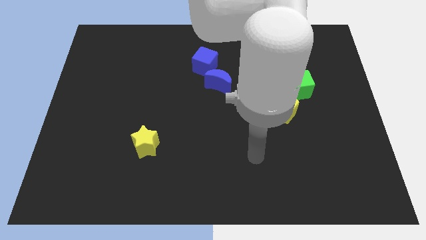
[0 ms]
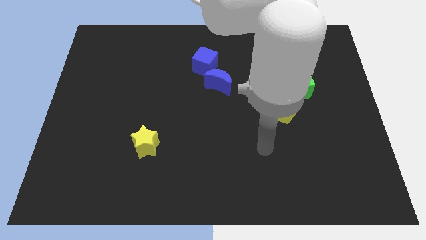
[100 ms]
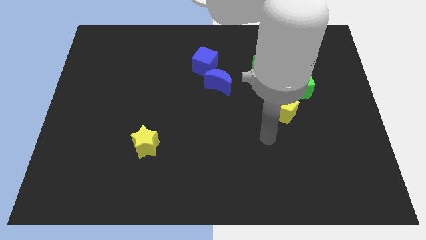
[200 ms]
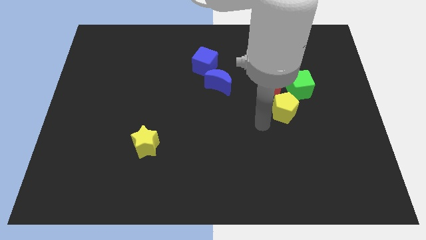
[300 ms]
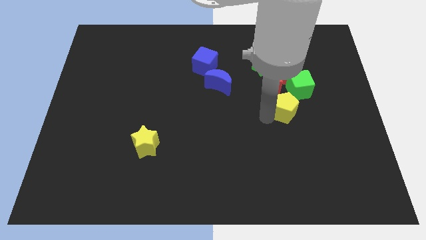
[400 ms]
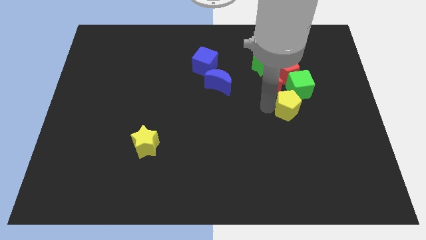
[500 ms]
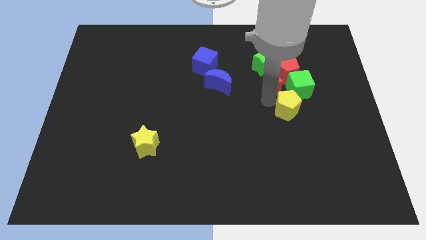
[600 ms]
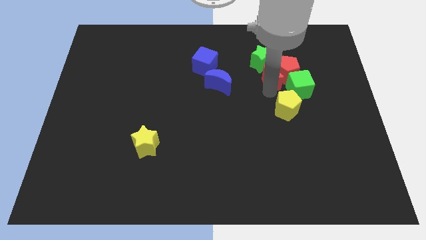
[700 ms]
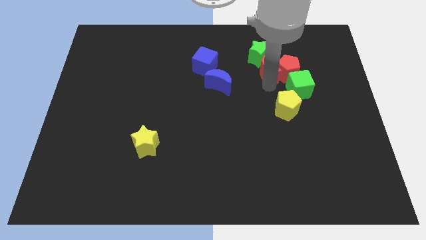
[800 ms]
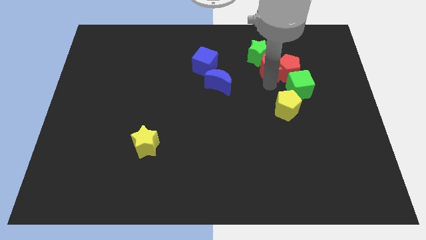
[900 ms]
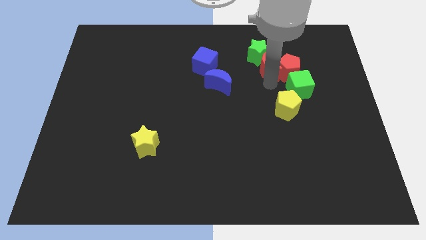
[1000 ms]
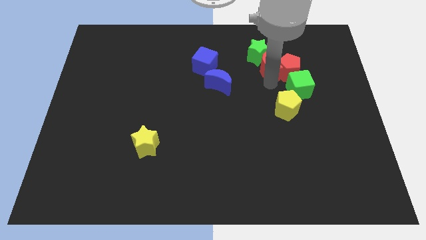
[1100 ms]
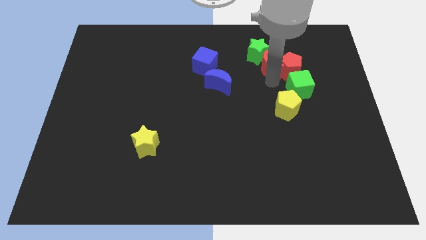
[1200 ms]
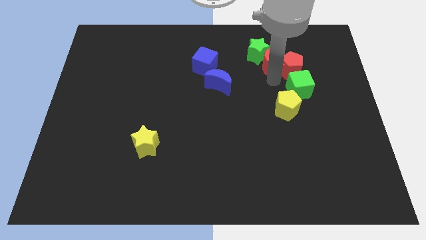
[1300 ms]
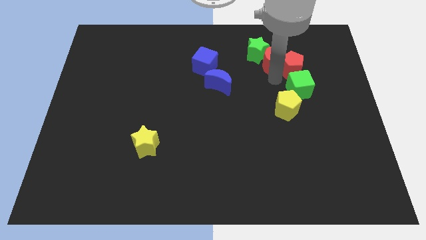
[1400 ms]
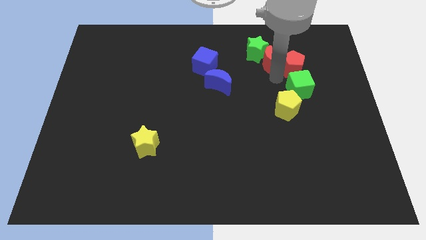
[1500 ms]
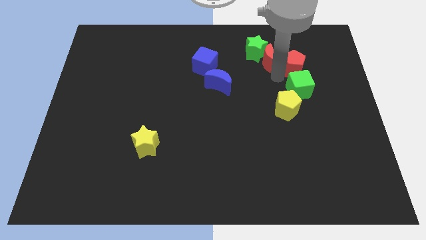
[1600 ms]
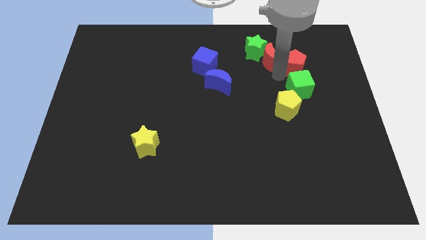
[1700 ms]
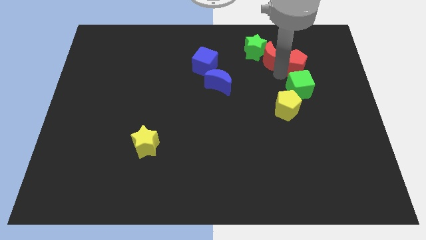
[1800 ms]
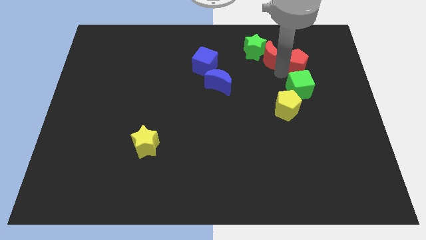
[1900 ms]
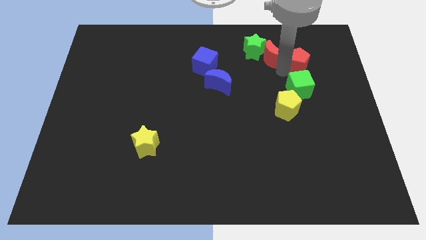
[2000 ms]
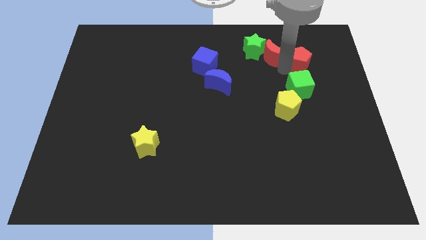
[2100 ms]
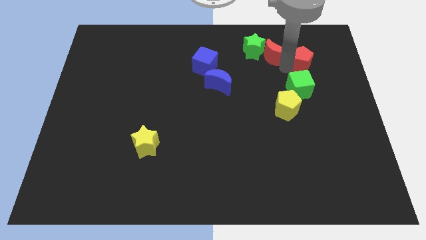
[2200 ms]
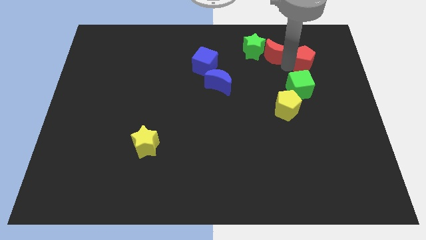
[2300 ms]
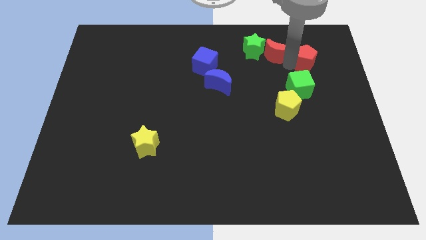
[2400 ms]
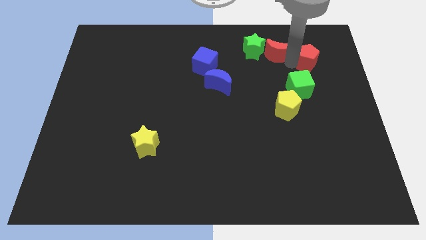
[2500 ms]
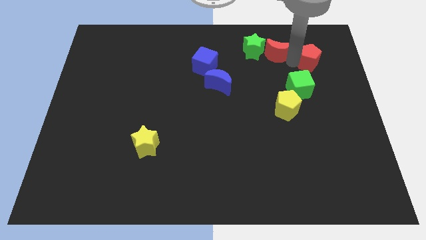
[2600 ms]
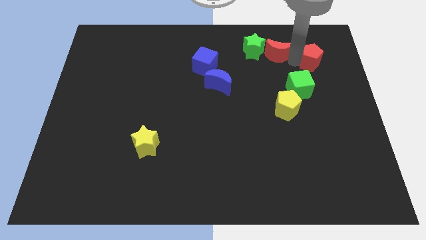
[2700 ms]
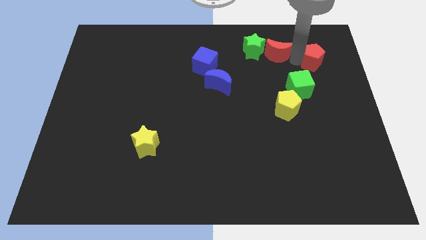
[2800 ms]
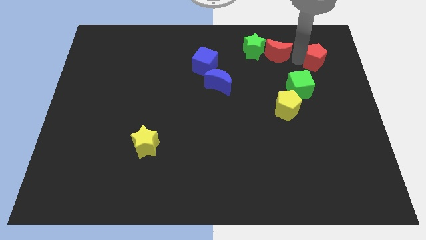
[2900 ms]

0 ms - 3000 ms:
pull the red pentagon apart from the red moon, green cube, and green star

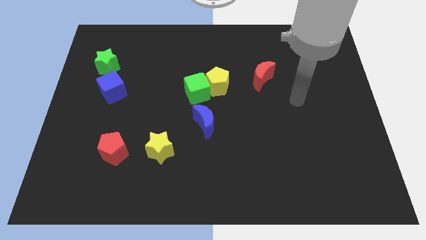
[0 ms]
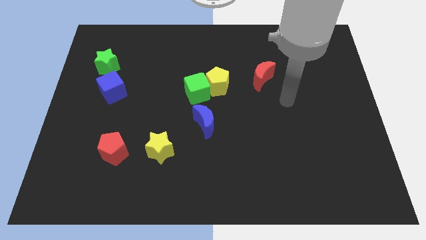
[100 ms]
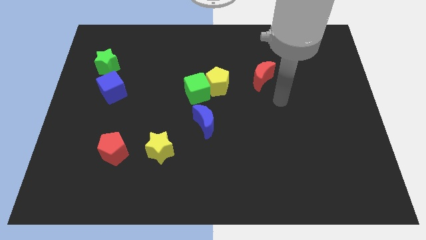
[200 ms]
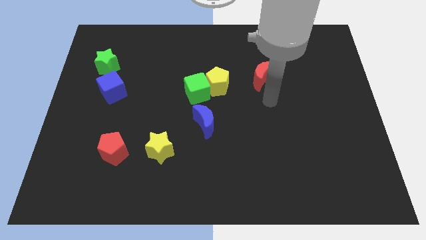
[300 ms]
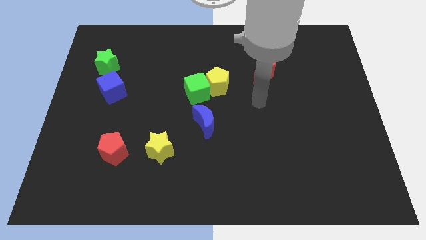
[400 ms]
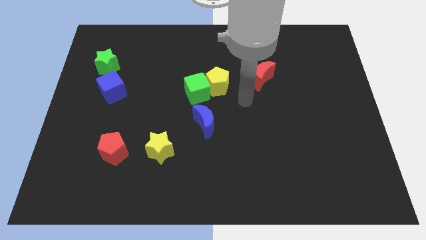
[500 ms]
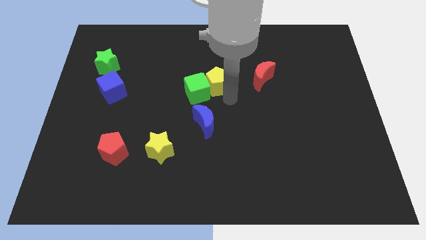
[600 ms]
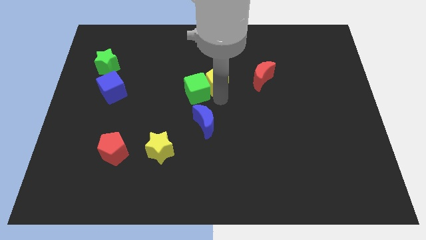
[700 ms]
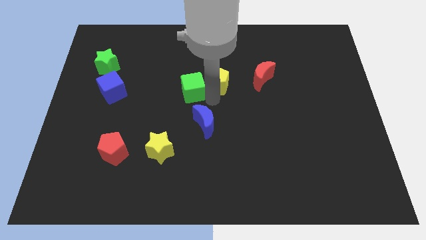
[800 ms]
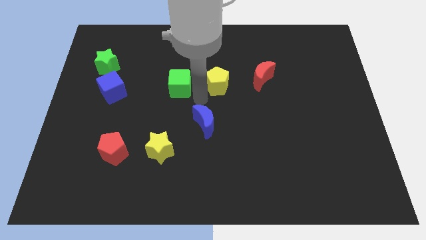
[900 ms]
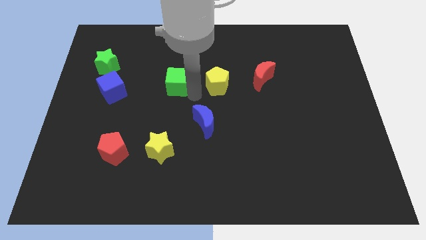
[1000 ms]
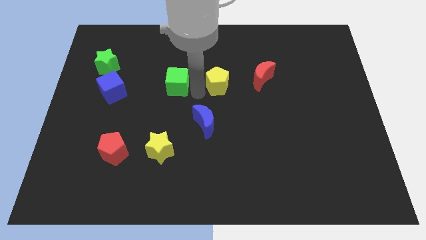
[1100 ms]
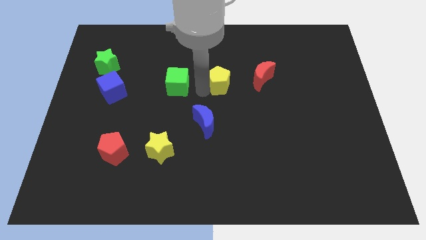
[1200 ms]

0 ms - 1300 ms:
separate the yellow pentagon from the green cube

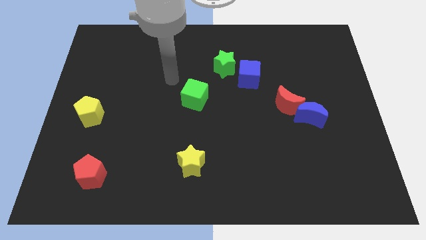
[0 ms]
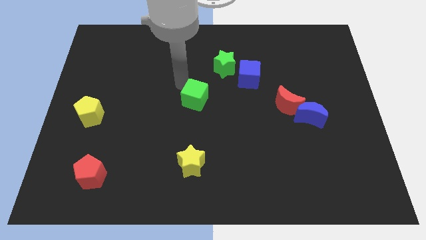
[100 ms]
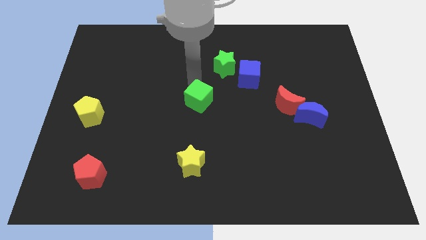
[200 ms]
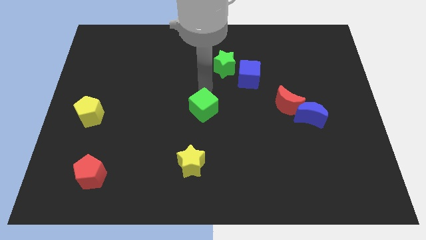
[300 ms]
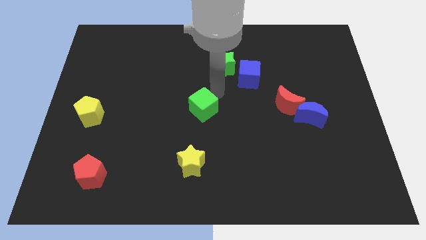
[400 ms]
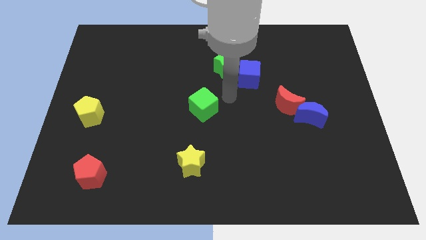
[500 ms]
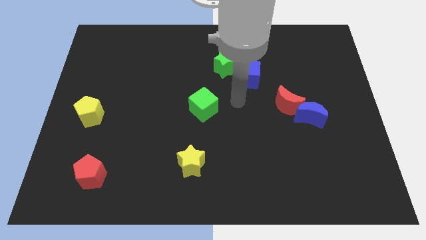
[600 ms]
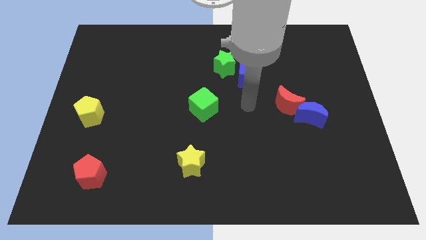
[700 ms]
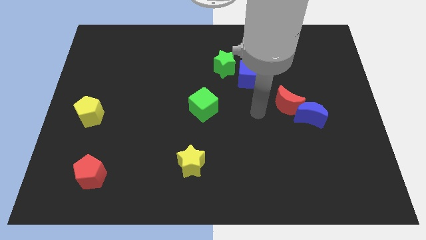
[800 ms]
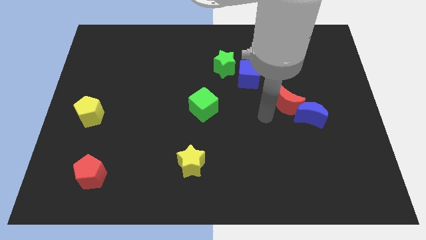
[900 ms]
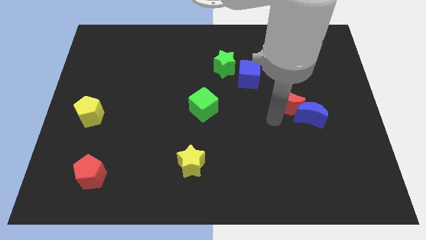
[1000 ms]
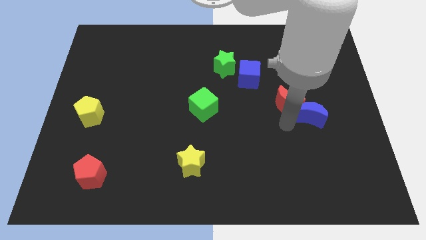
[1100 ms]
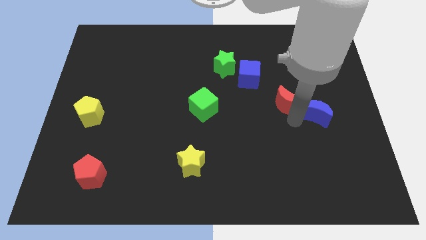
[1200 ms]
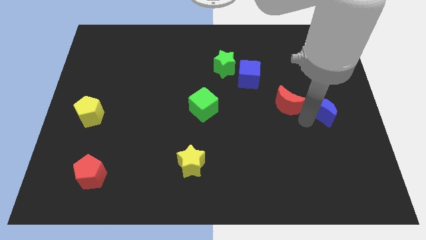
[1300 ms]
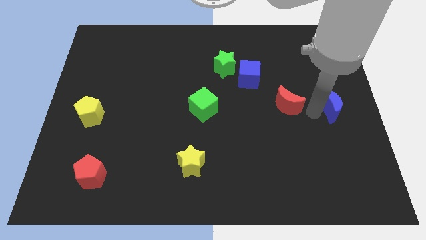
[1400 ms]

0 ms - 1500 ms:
move the red moon away from the blue moon

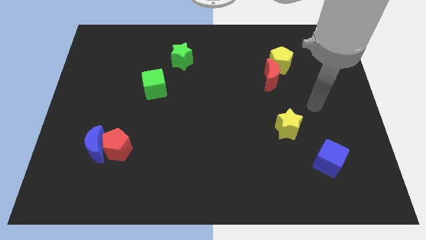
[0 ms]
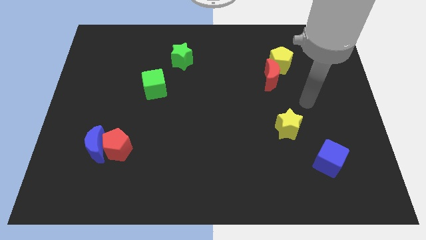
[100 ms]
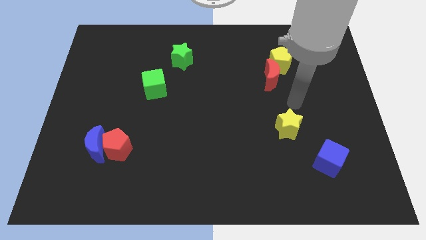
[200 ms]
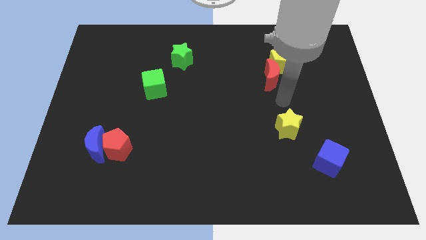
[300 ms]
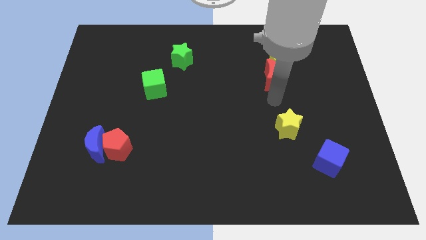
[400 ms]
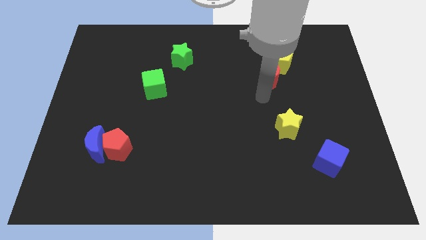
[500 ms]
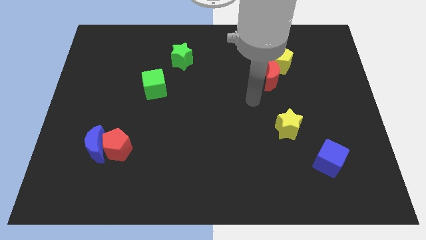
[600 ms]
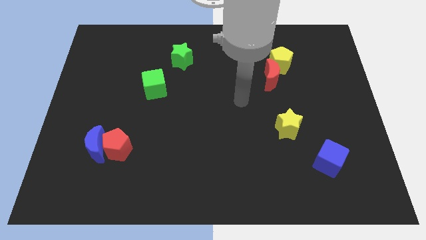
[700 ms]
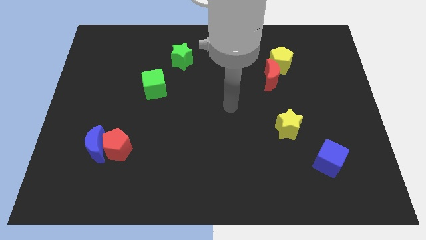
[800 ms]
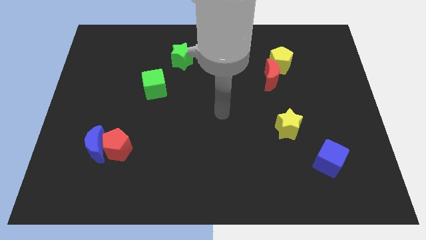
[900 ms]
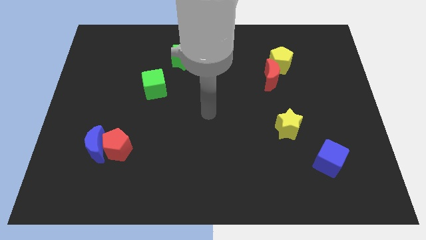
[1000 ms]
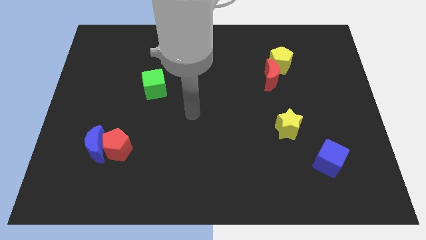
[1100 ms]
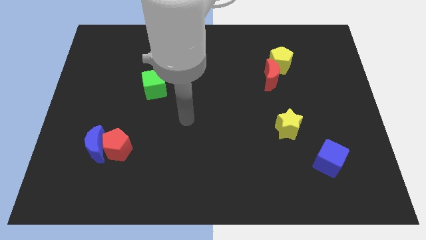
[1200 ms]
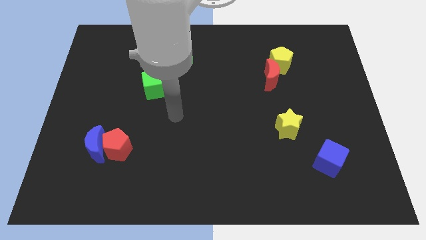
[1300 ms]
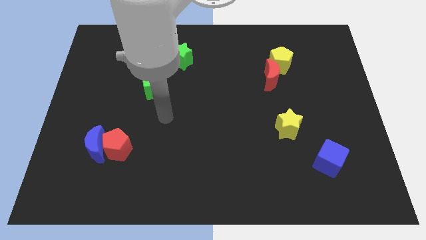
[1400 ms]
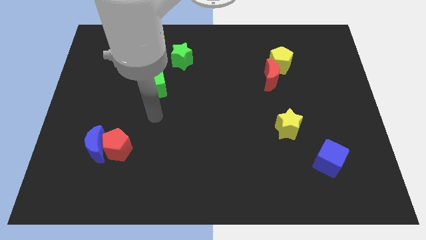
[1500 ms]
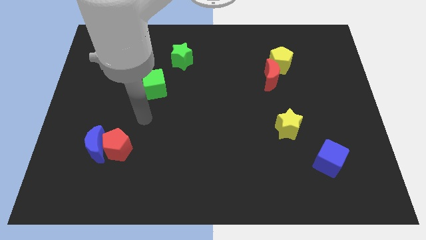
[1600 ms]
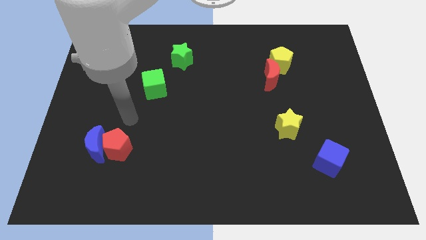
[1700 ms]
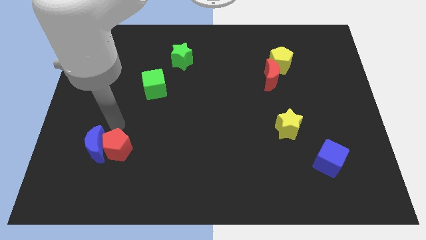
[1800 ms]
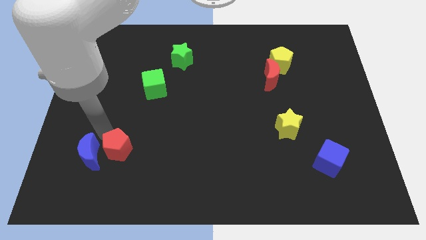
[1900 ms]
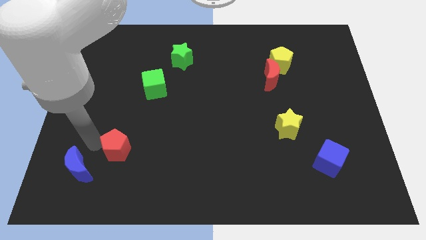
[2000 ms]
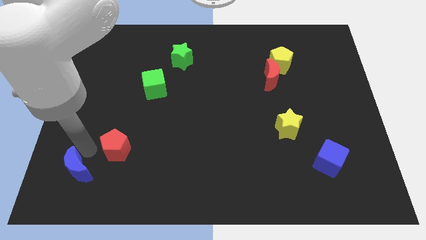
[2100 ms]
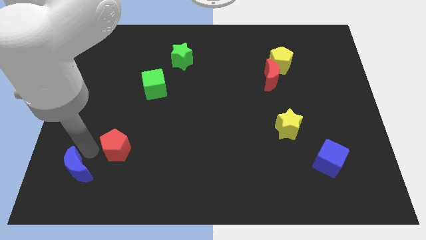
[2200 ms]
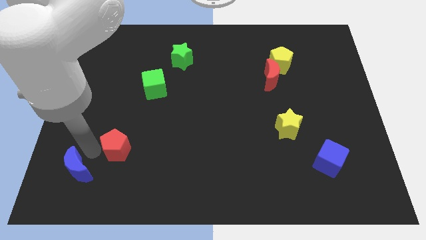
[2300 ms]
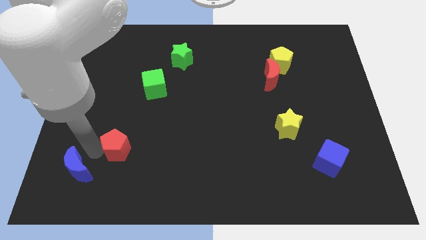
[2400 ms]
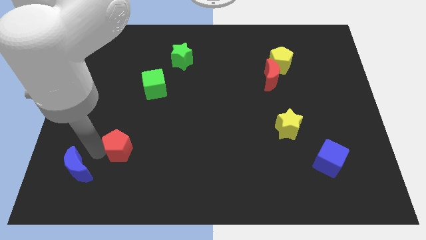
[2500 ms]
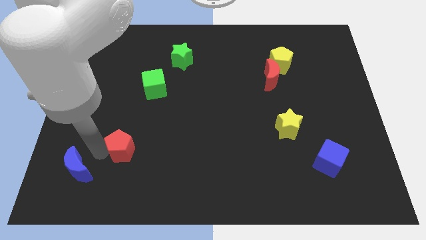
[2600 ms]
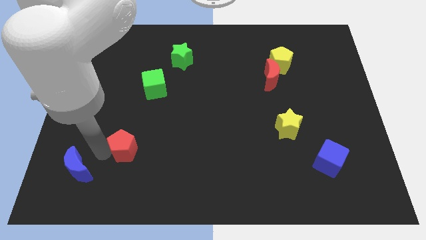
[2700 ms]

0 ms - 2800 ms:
separate the red pentagon from the blue moon

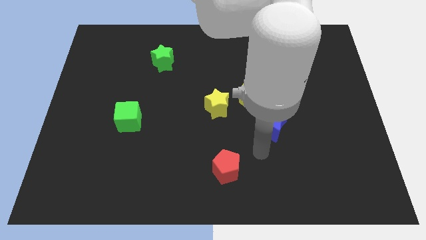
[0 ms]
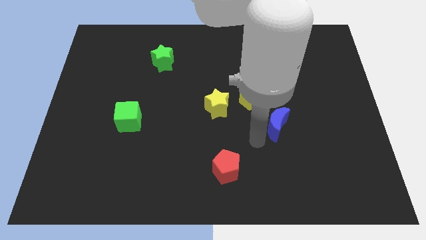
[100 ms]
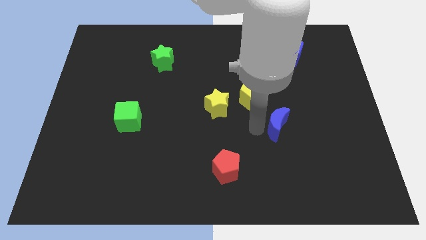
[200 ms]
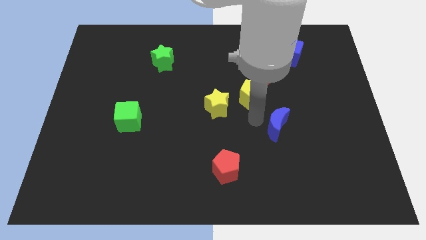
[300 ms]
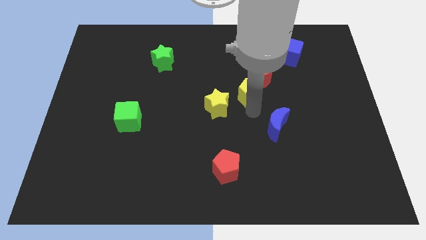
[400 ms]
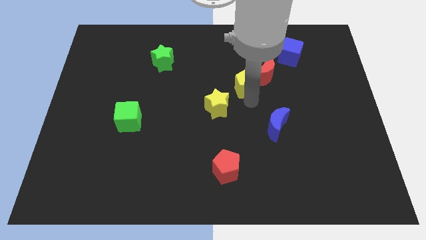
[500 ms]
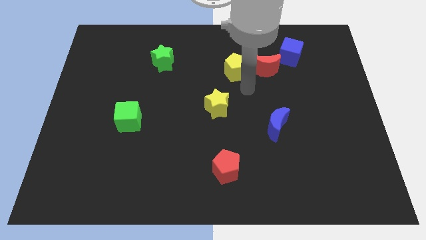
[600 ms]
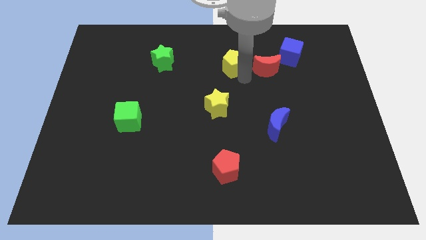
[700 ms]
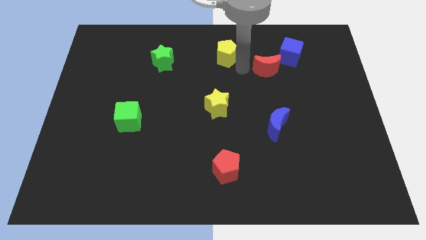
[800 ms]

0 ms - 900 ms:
move the red moon away from the yellow pentagon

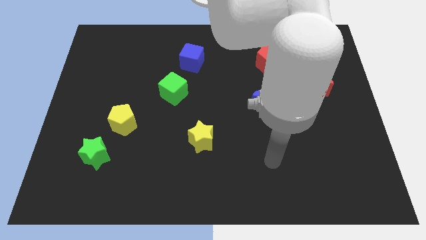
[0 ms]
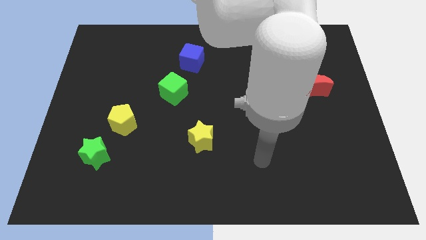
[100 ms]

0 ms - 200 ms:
separate the green star from the yellow pentagon
